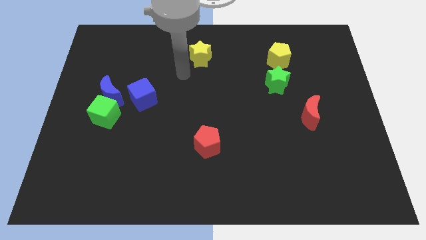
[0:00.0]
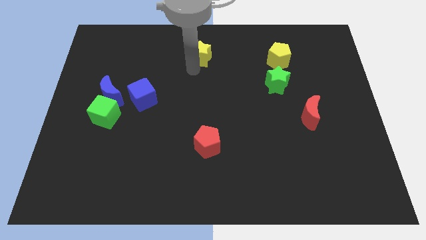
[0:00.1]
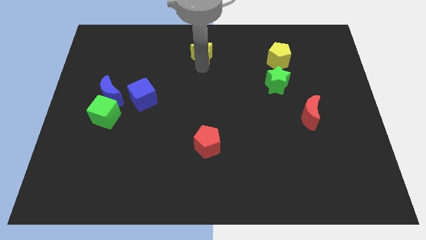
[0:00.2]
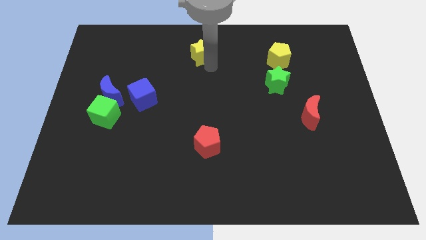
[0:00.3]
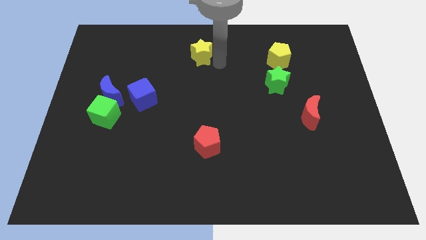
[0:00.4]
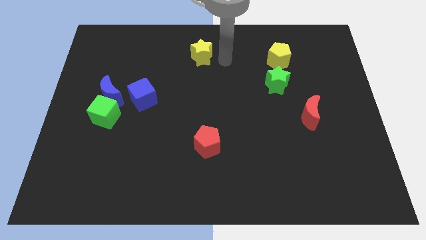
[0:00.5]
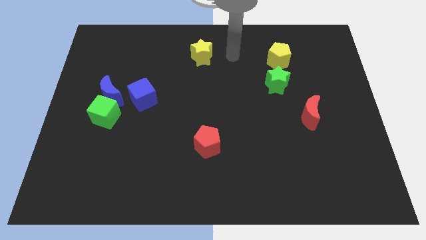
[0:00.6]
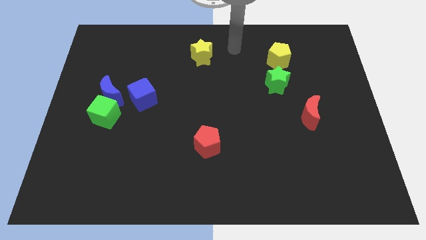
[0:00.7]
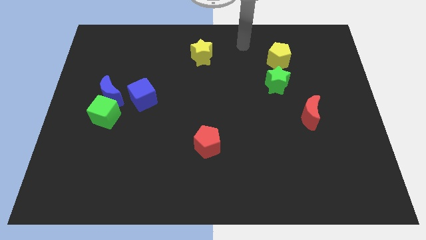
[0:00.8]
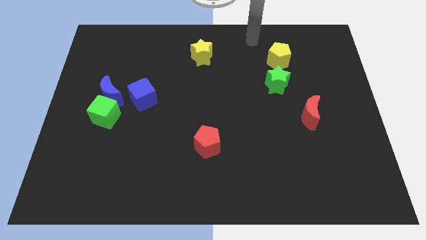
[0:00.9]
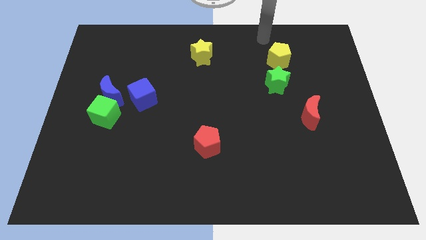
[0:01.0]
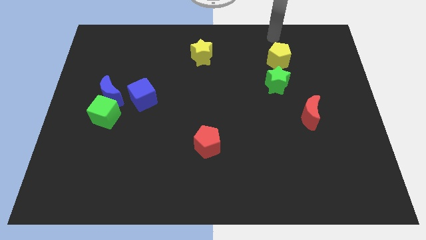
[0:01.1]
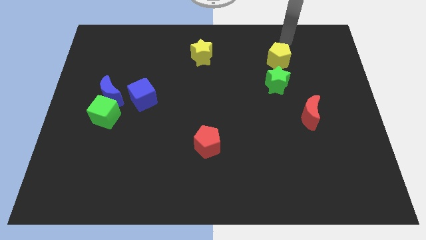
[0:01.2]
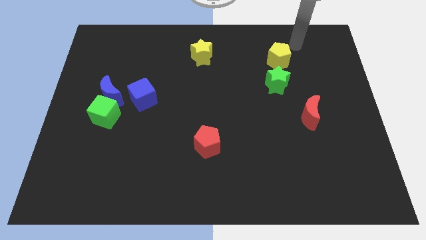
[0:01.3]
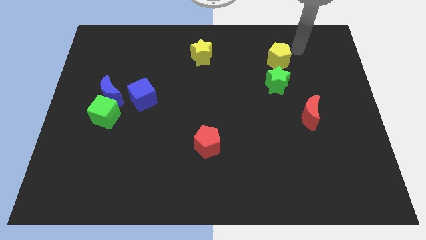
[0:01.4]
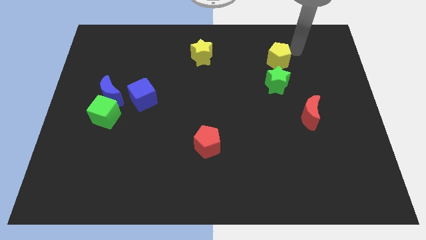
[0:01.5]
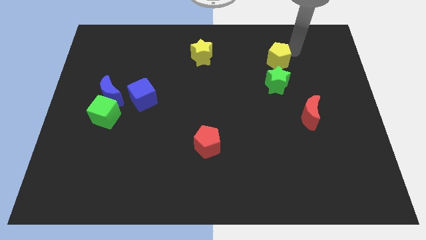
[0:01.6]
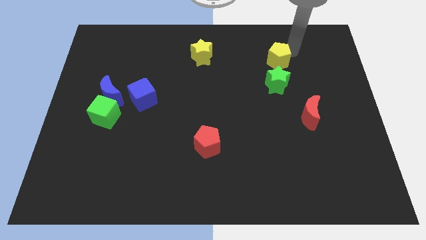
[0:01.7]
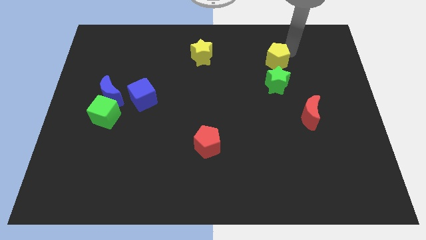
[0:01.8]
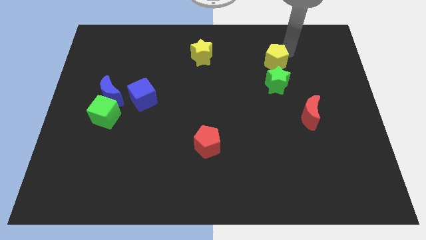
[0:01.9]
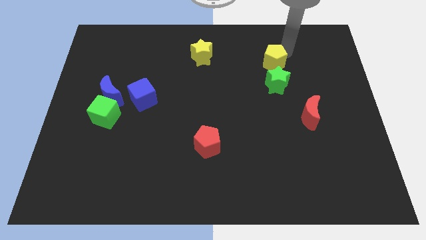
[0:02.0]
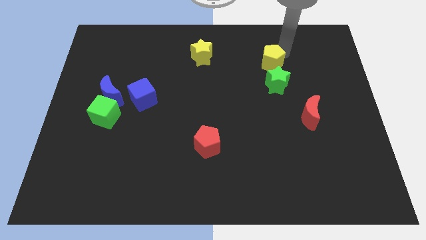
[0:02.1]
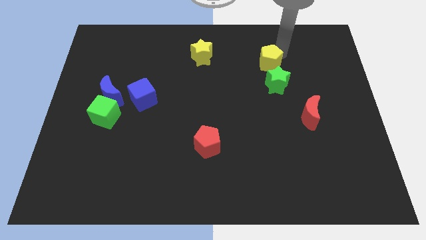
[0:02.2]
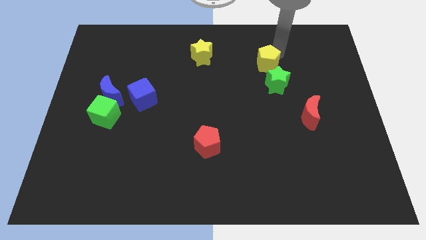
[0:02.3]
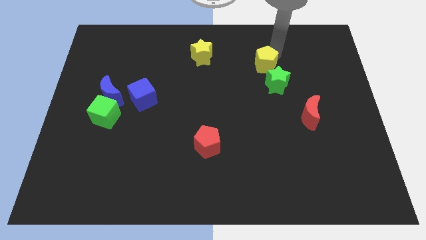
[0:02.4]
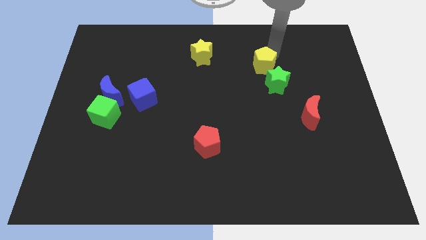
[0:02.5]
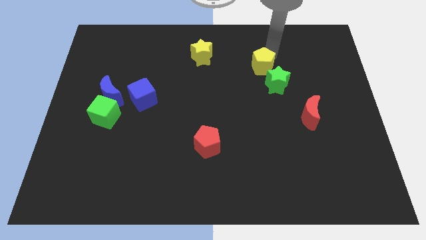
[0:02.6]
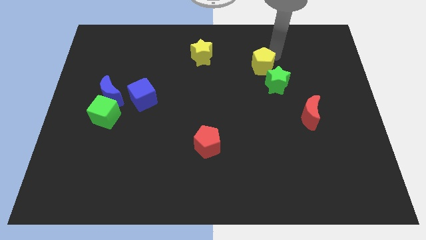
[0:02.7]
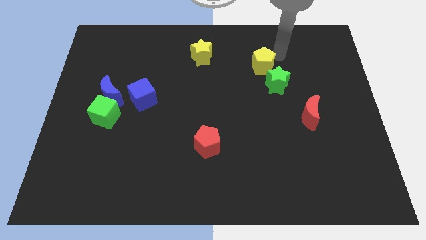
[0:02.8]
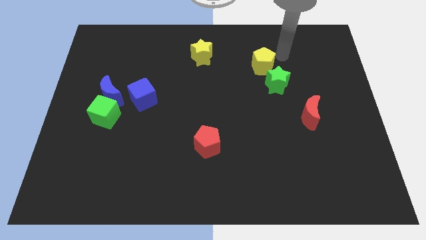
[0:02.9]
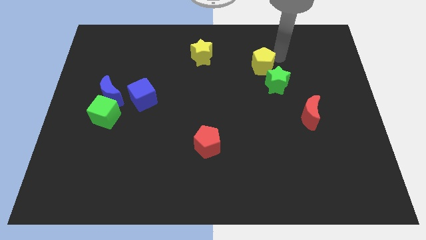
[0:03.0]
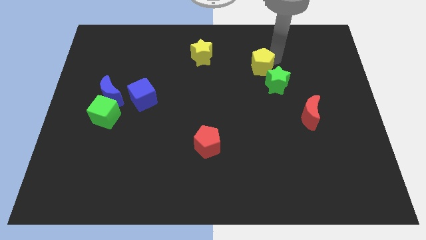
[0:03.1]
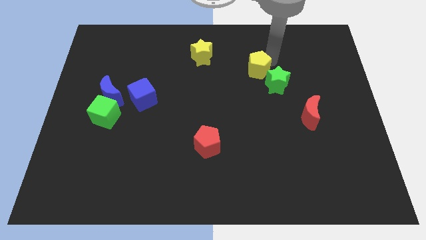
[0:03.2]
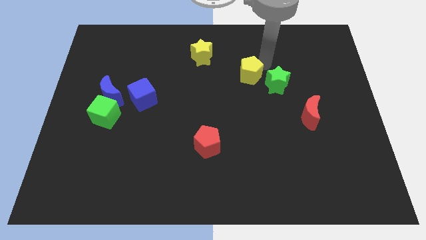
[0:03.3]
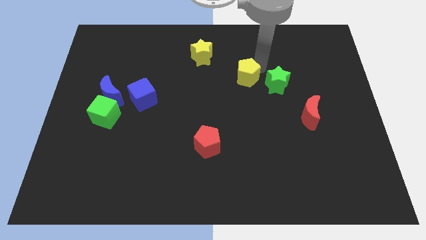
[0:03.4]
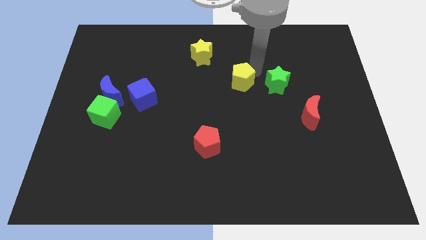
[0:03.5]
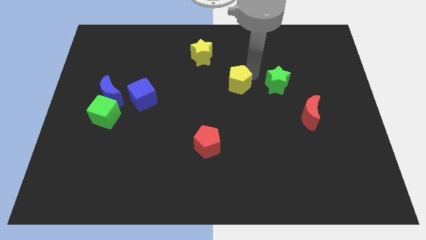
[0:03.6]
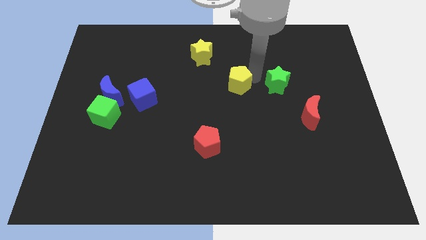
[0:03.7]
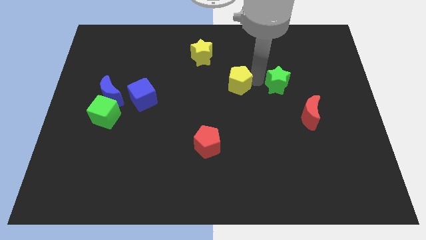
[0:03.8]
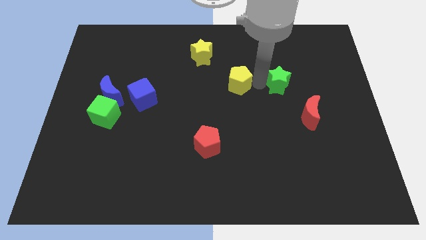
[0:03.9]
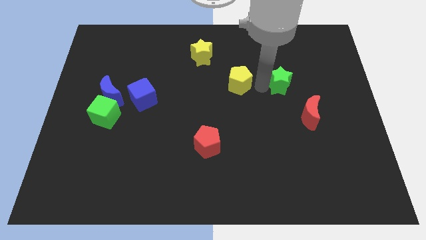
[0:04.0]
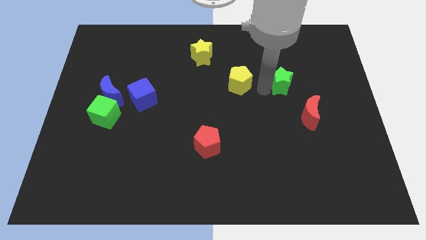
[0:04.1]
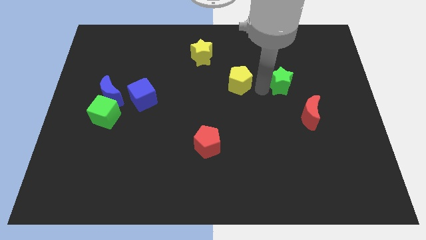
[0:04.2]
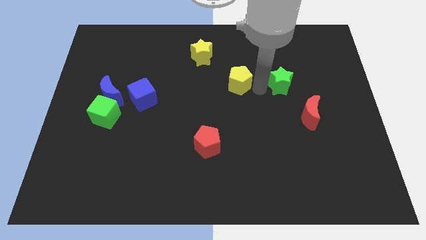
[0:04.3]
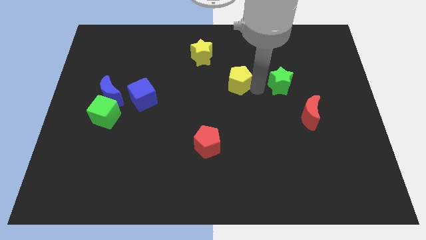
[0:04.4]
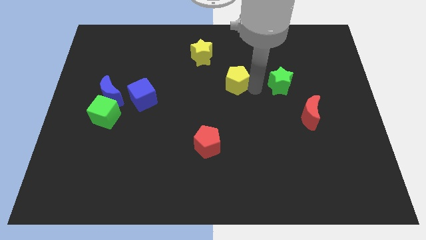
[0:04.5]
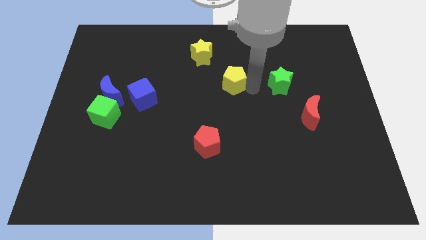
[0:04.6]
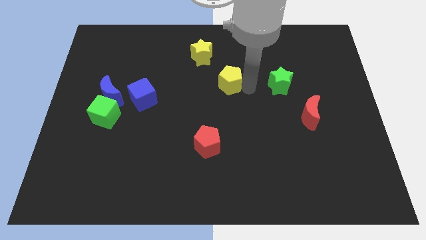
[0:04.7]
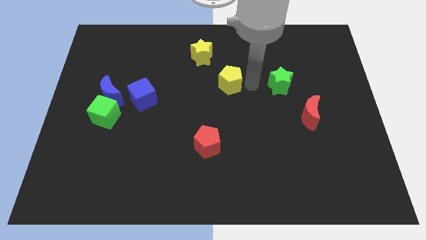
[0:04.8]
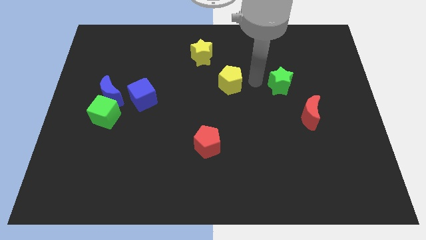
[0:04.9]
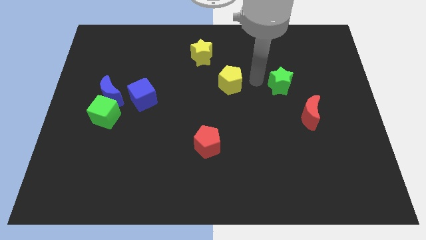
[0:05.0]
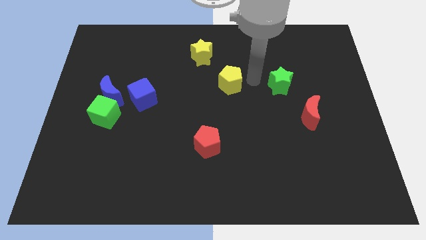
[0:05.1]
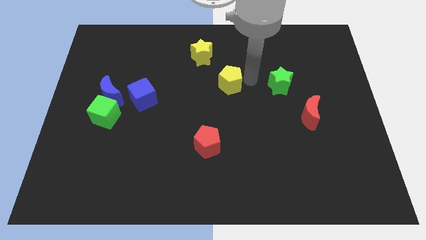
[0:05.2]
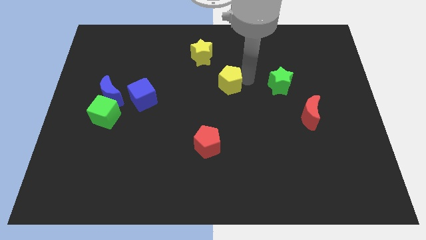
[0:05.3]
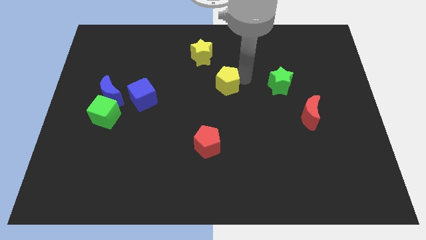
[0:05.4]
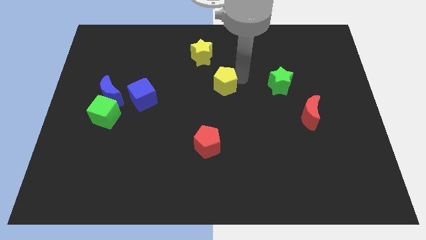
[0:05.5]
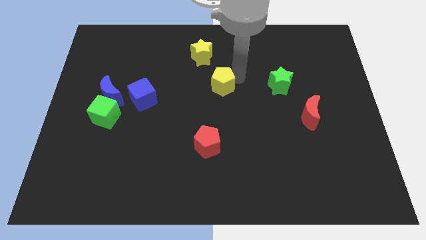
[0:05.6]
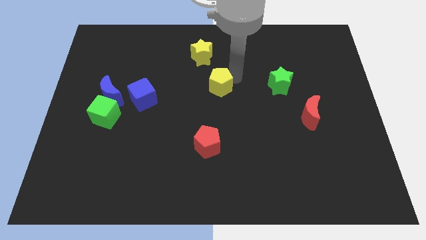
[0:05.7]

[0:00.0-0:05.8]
move the yellow pentagon to the bottom of the yellow star

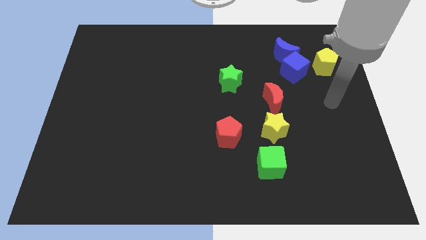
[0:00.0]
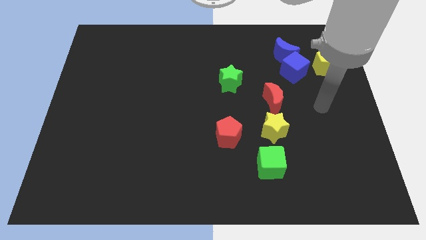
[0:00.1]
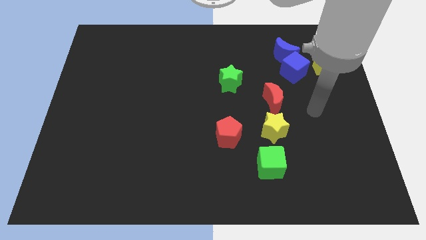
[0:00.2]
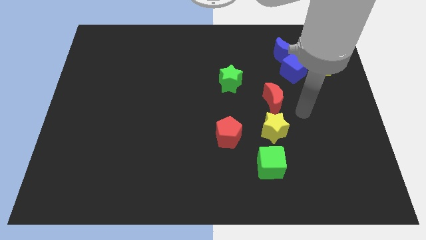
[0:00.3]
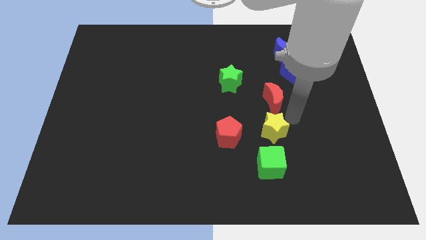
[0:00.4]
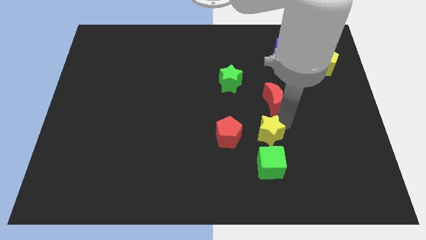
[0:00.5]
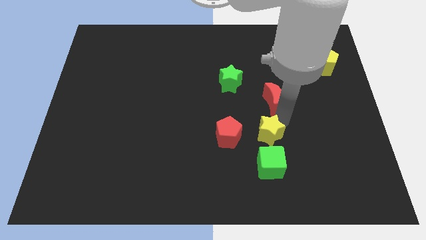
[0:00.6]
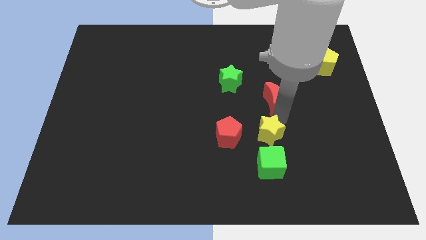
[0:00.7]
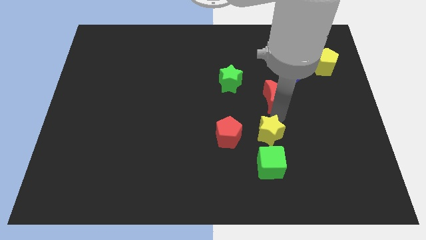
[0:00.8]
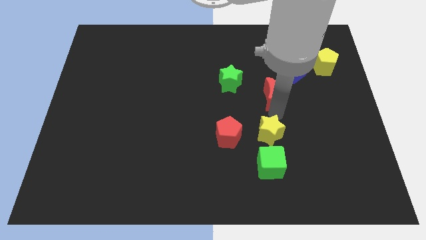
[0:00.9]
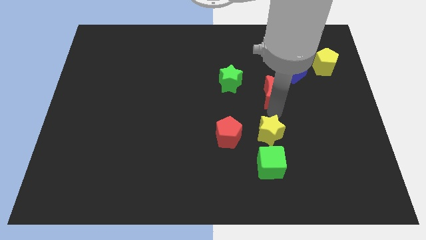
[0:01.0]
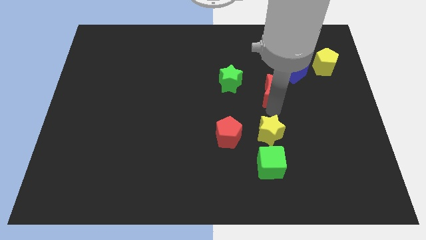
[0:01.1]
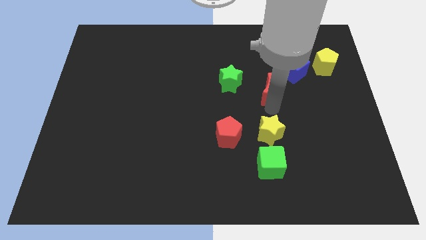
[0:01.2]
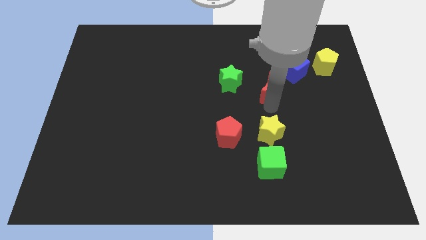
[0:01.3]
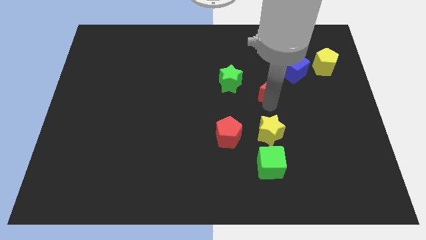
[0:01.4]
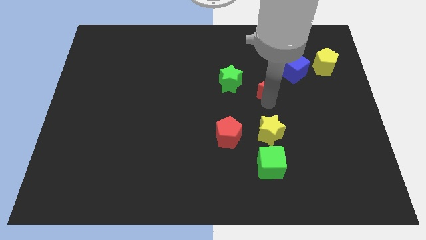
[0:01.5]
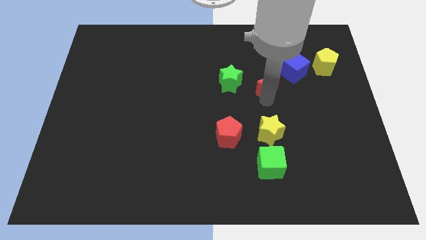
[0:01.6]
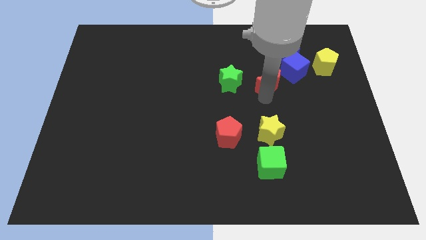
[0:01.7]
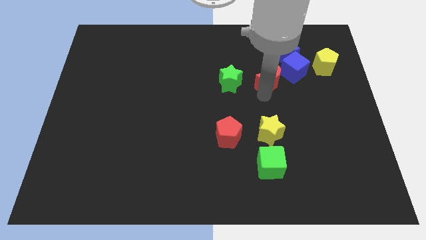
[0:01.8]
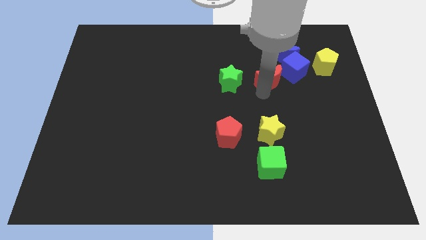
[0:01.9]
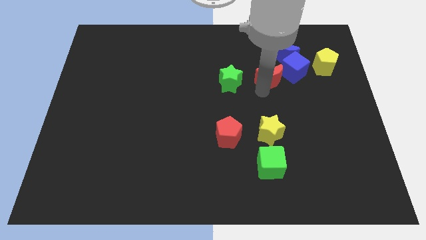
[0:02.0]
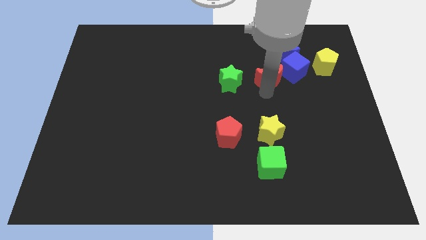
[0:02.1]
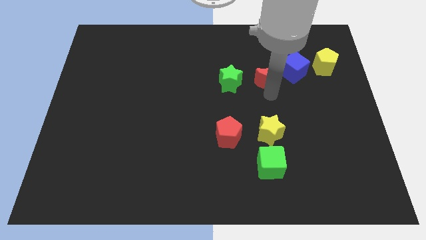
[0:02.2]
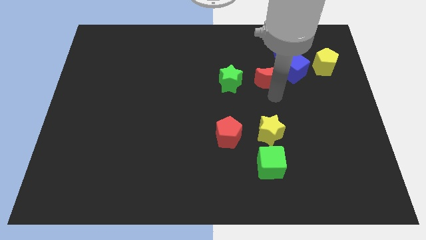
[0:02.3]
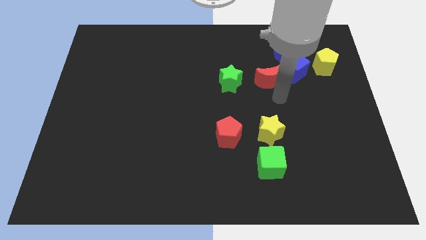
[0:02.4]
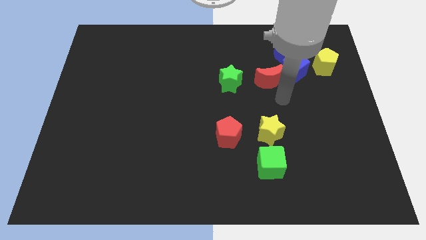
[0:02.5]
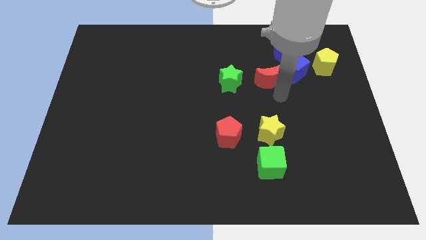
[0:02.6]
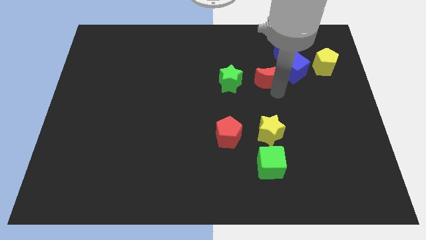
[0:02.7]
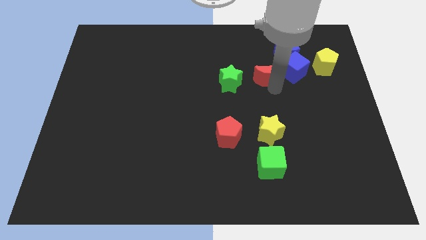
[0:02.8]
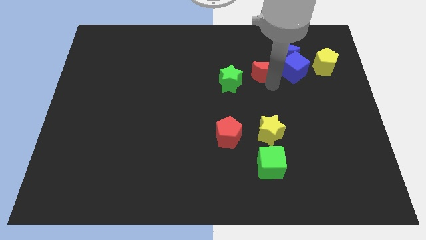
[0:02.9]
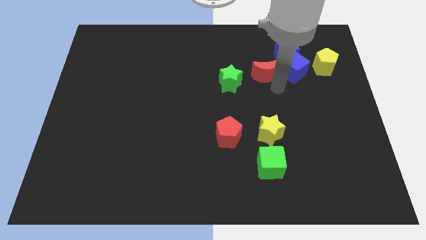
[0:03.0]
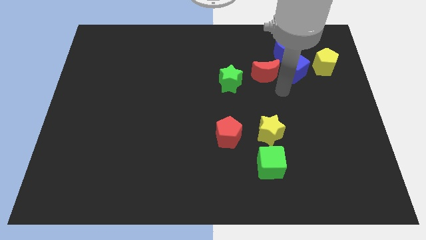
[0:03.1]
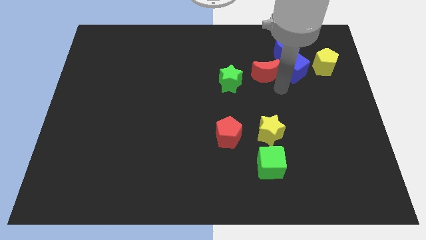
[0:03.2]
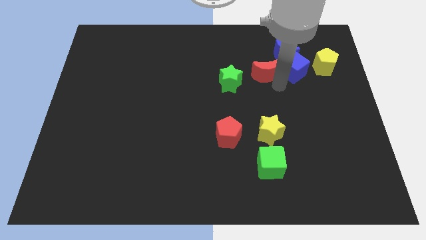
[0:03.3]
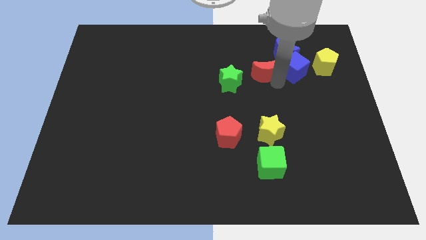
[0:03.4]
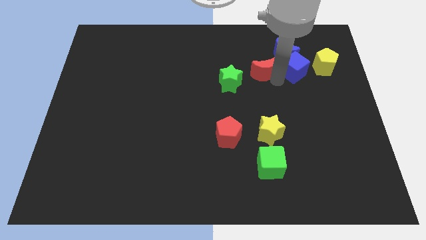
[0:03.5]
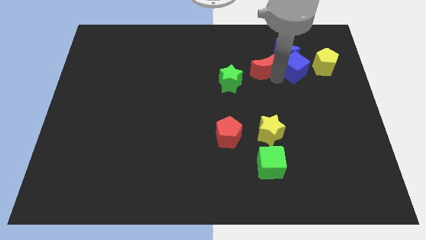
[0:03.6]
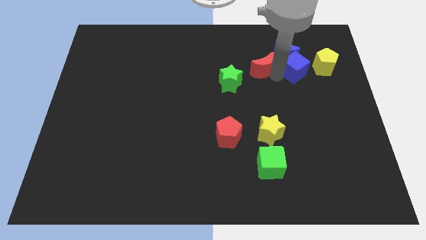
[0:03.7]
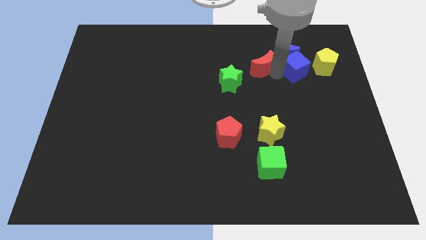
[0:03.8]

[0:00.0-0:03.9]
move the red moon to the left of the blue moon
